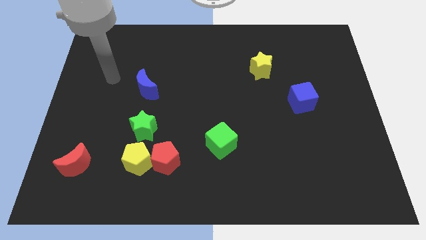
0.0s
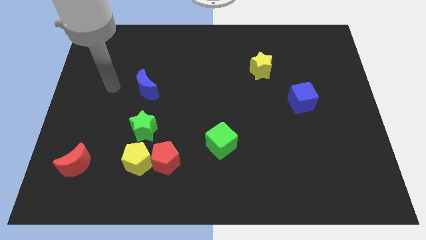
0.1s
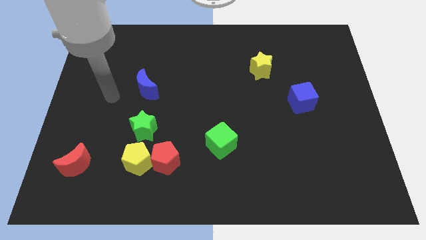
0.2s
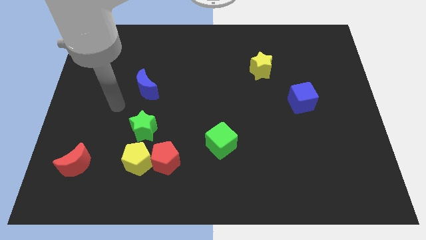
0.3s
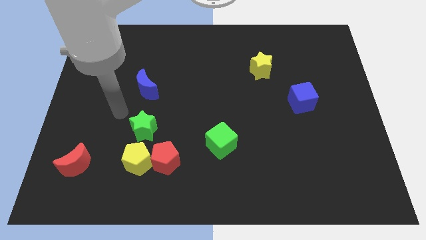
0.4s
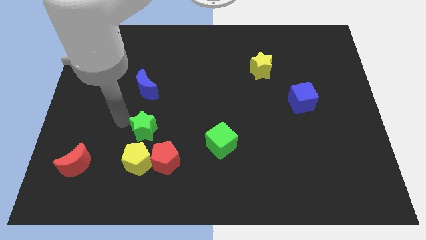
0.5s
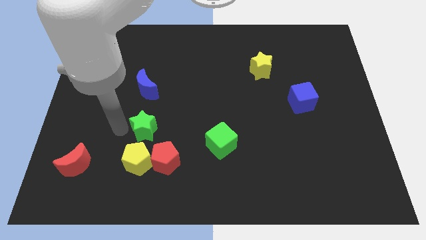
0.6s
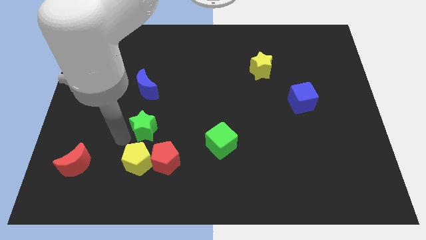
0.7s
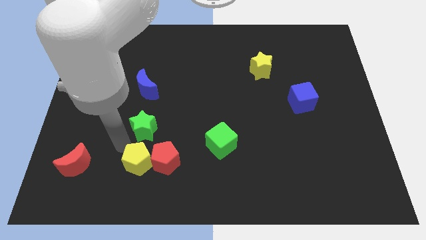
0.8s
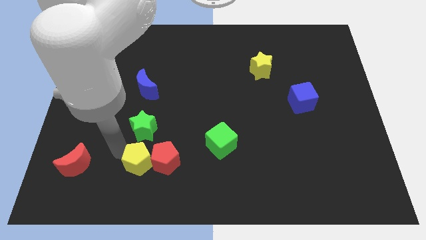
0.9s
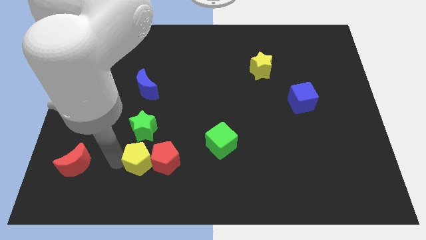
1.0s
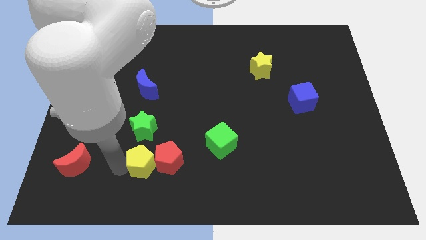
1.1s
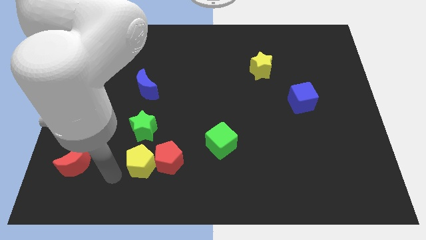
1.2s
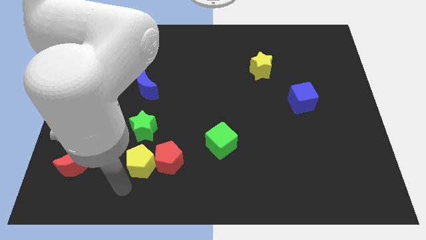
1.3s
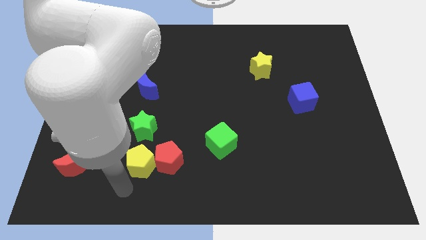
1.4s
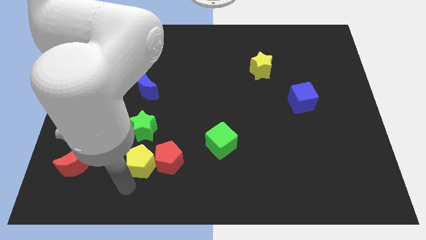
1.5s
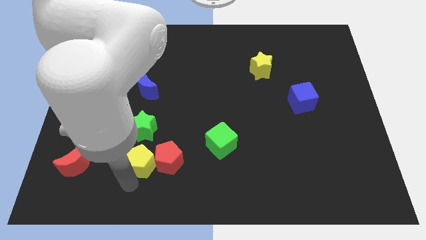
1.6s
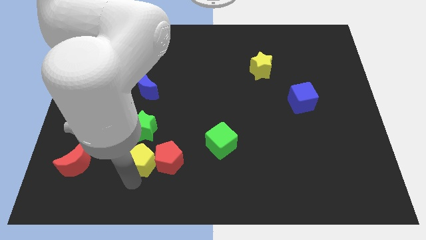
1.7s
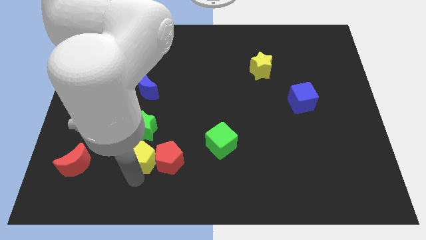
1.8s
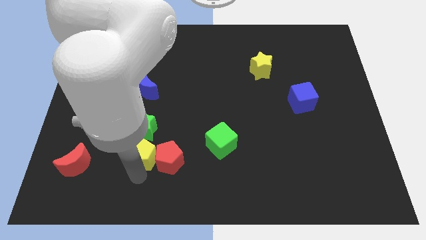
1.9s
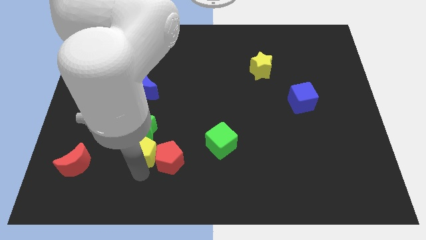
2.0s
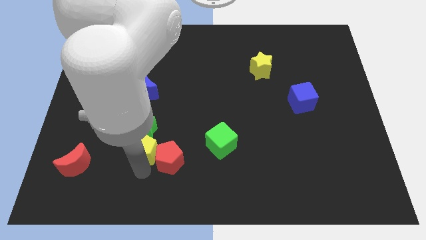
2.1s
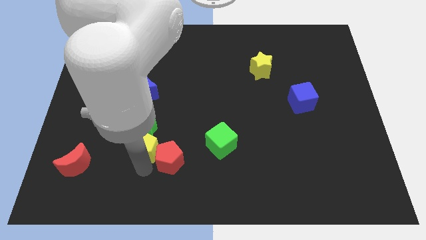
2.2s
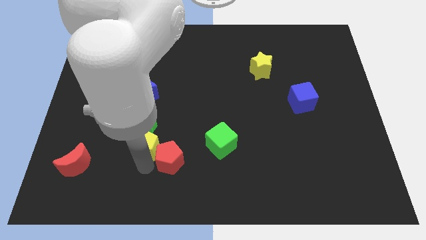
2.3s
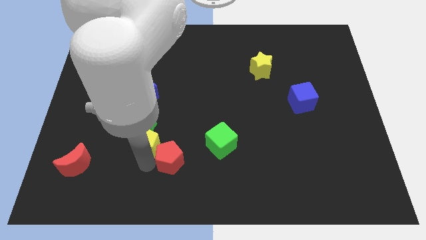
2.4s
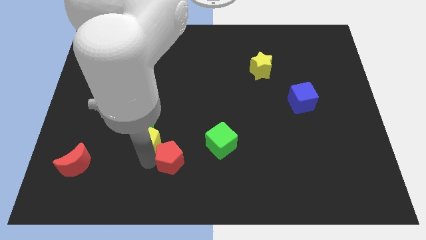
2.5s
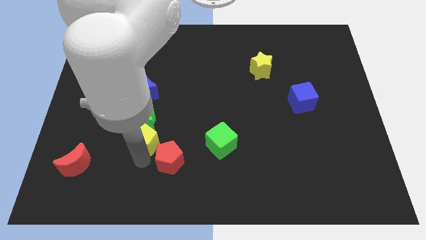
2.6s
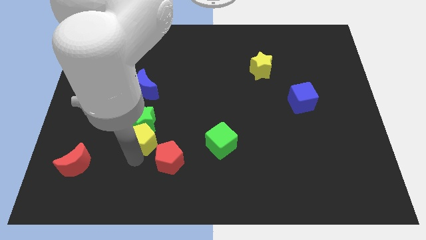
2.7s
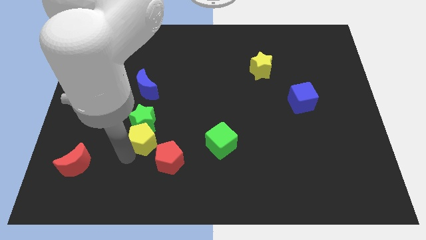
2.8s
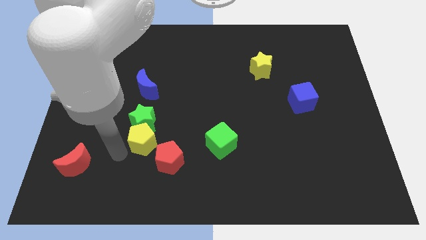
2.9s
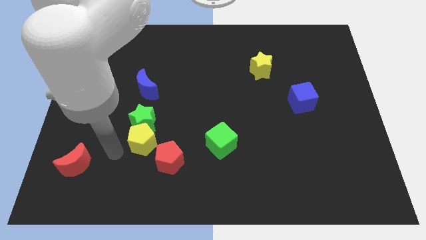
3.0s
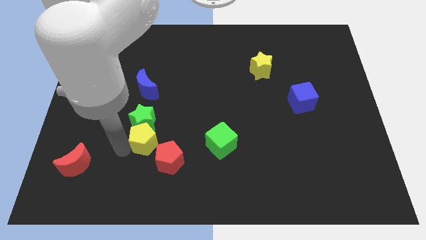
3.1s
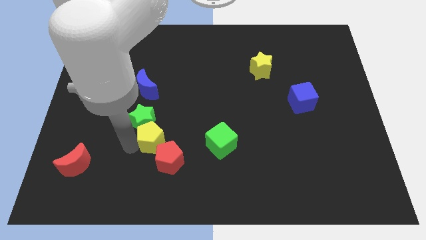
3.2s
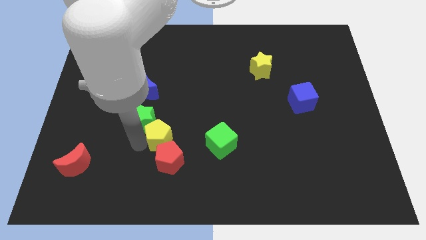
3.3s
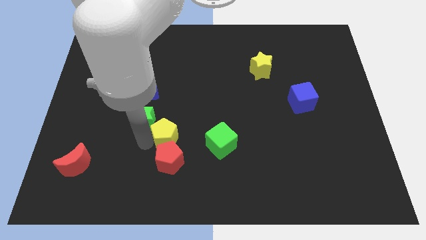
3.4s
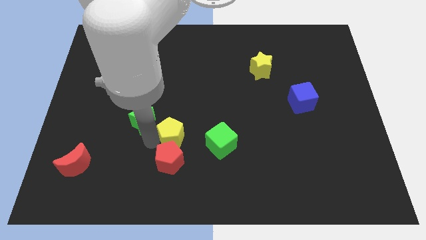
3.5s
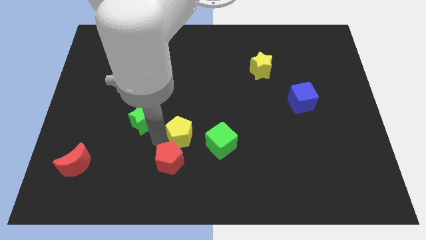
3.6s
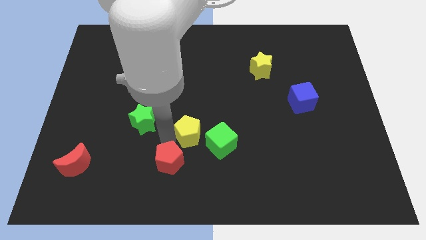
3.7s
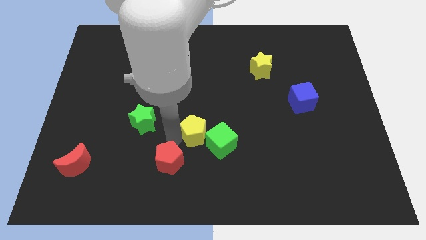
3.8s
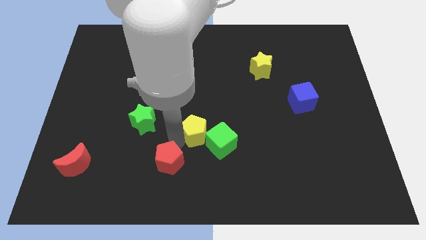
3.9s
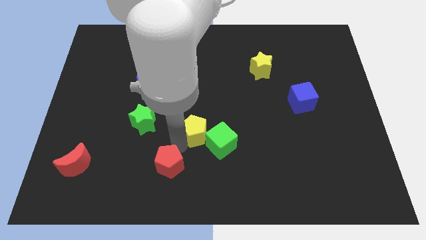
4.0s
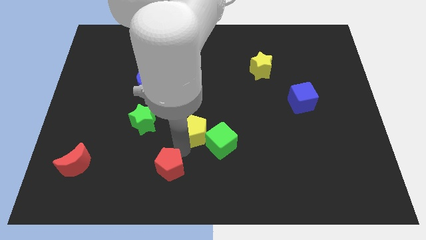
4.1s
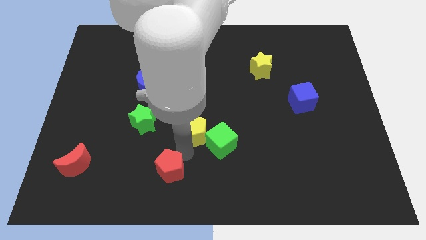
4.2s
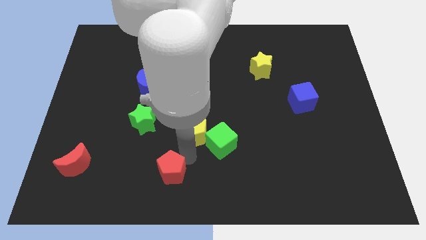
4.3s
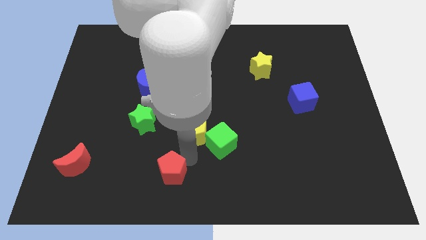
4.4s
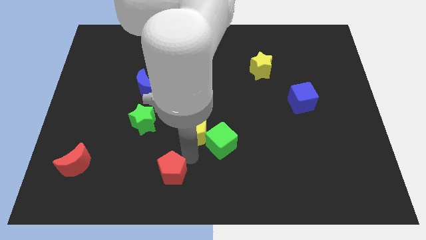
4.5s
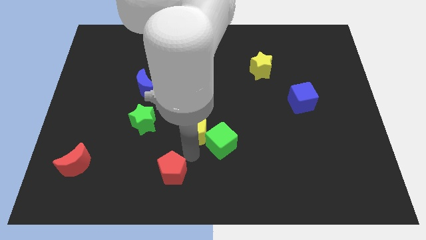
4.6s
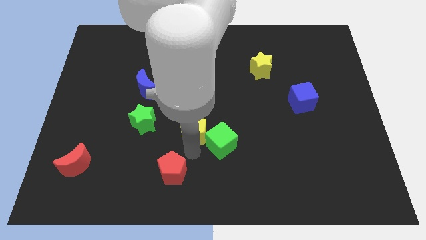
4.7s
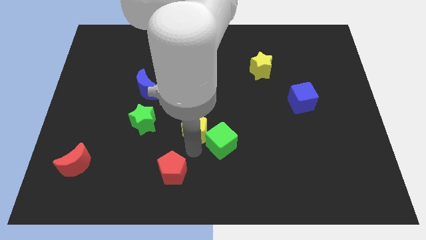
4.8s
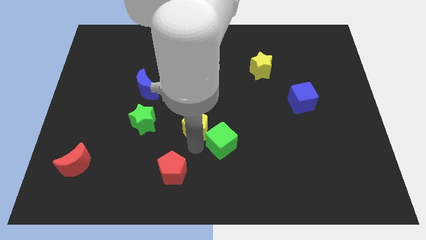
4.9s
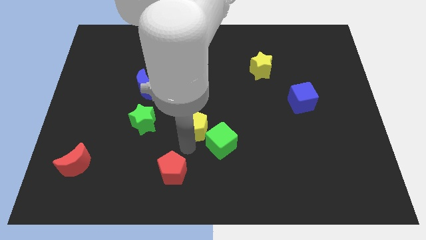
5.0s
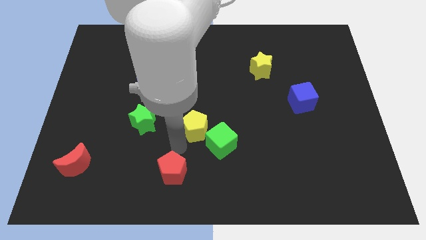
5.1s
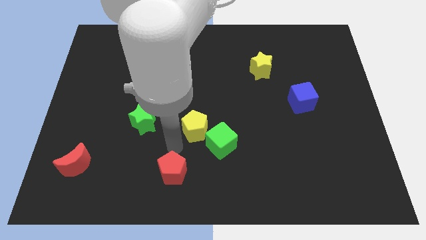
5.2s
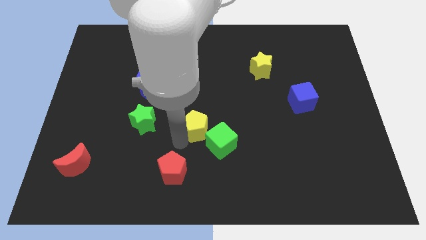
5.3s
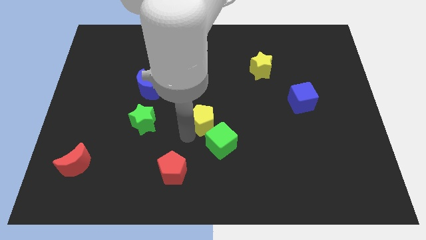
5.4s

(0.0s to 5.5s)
put the yellow pentagon above the green cube
